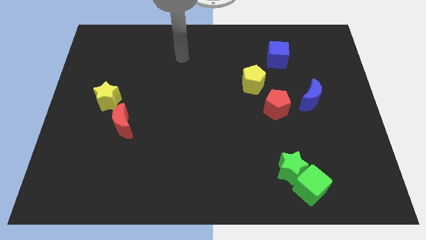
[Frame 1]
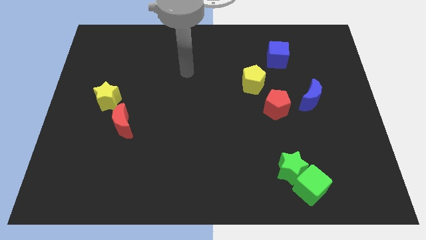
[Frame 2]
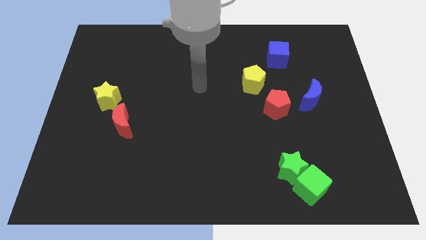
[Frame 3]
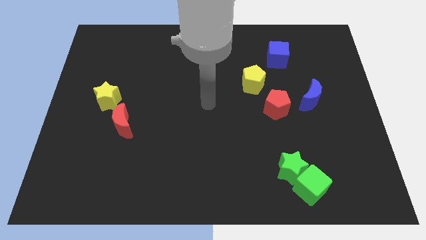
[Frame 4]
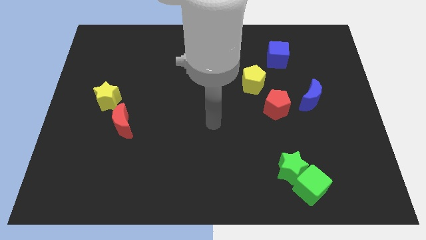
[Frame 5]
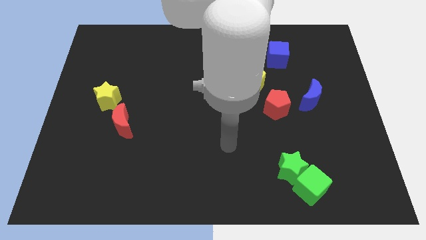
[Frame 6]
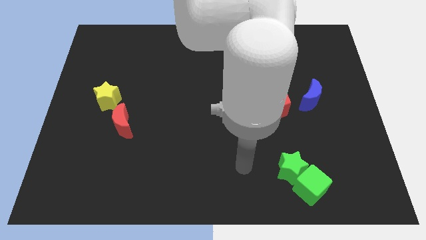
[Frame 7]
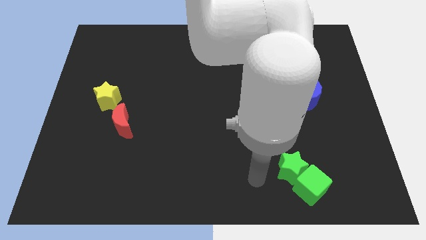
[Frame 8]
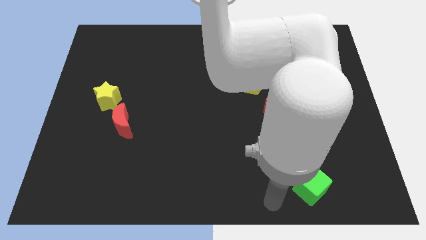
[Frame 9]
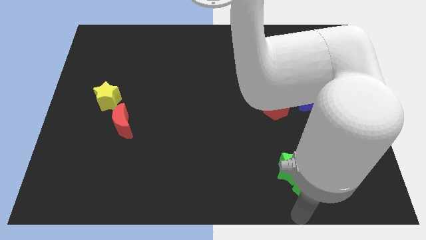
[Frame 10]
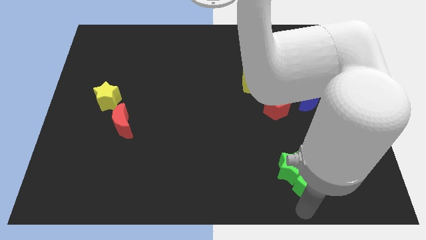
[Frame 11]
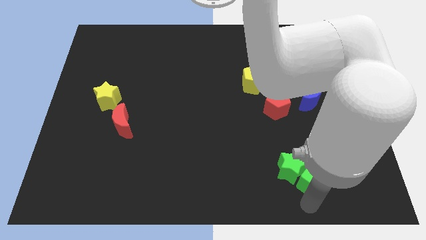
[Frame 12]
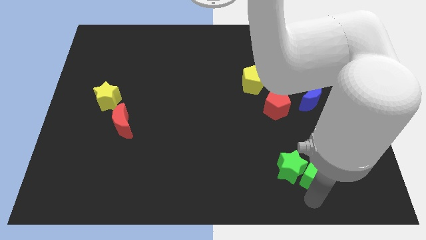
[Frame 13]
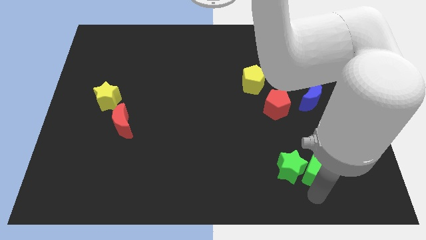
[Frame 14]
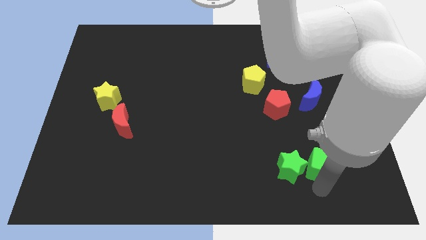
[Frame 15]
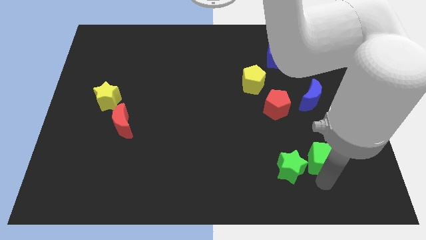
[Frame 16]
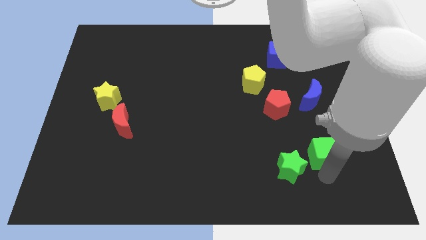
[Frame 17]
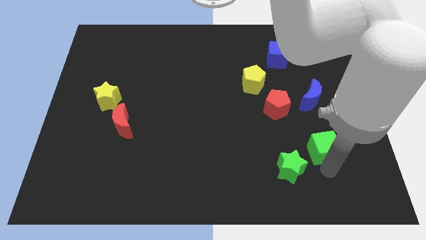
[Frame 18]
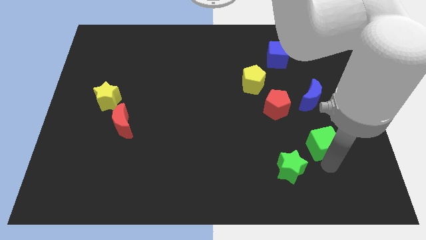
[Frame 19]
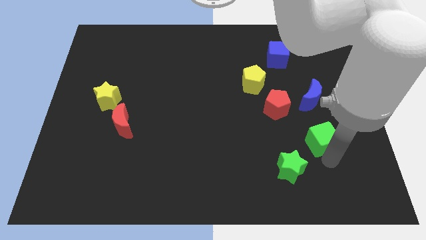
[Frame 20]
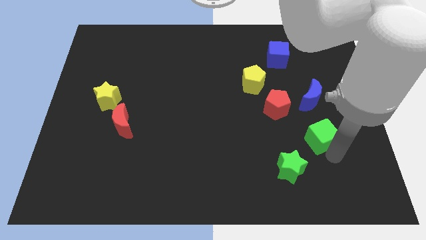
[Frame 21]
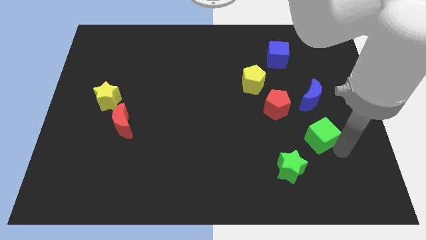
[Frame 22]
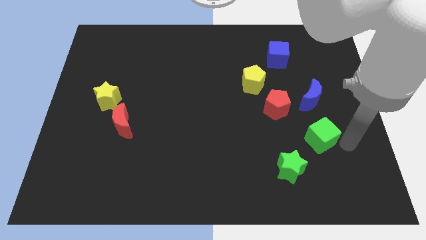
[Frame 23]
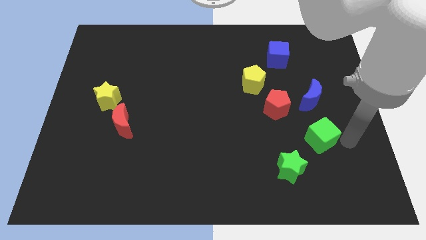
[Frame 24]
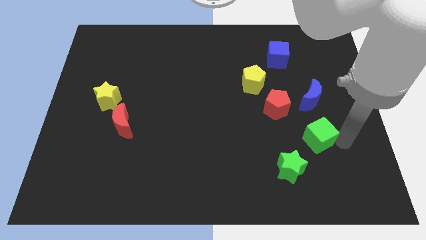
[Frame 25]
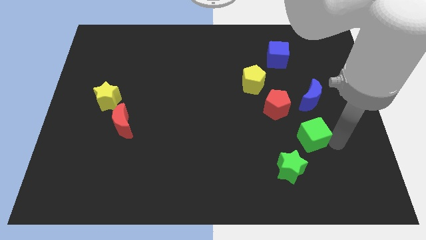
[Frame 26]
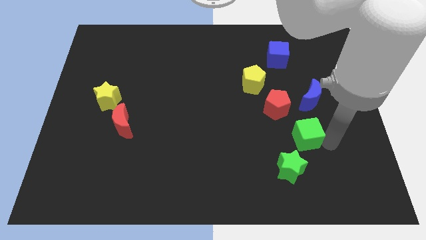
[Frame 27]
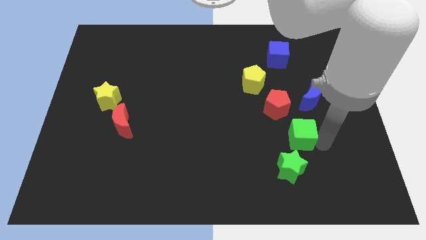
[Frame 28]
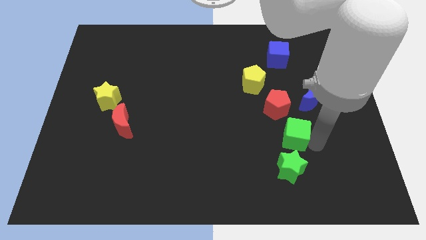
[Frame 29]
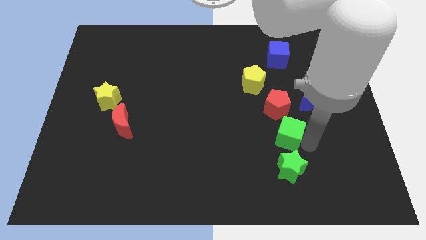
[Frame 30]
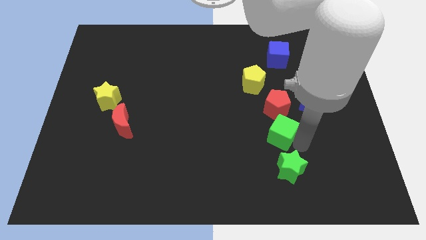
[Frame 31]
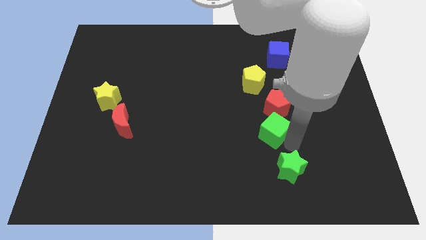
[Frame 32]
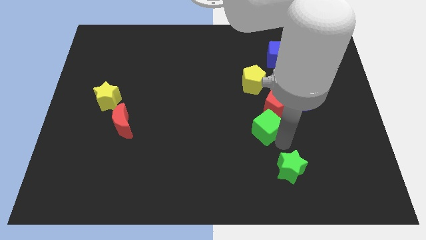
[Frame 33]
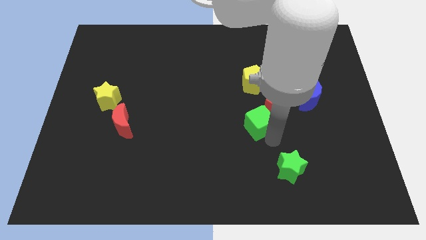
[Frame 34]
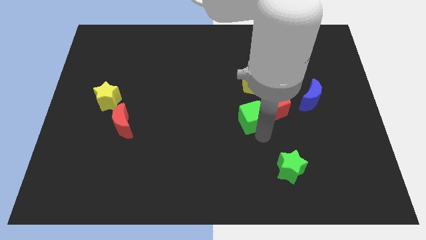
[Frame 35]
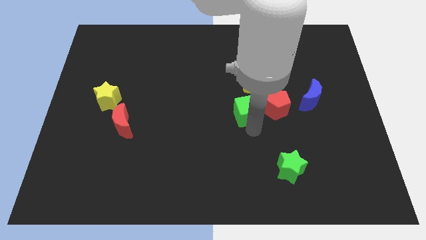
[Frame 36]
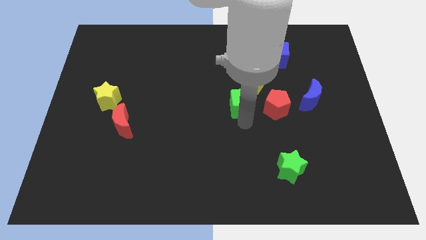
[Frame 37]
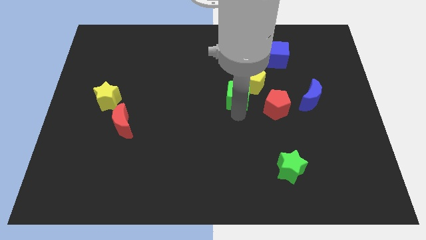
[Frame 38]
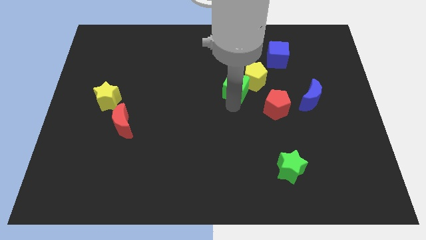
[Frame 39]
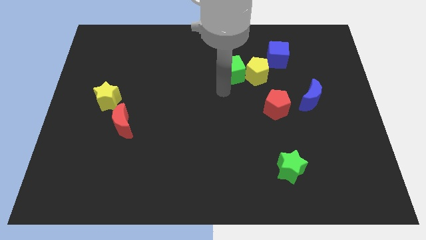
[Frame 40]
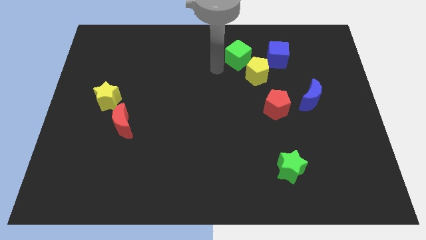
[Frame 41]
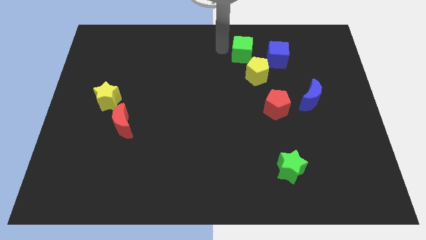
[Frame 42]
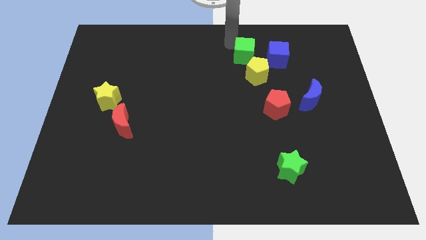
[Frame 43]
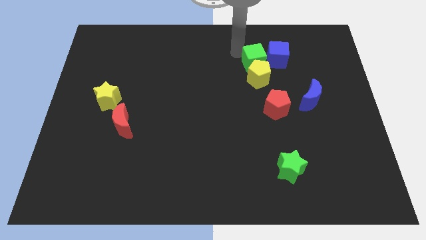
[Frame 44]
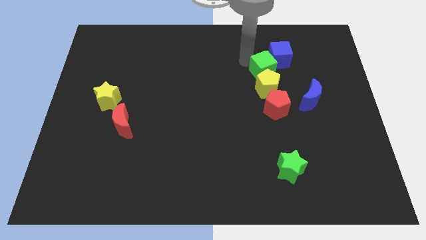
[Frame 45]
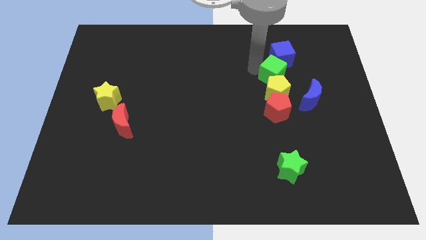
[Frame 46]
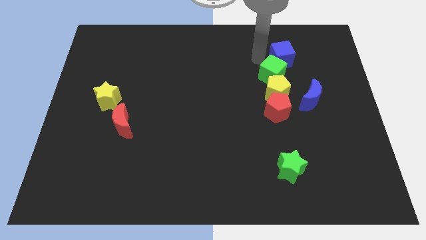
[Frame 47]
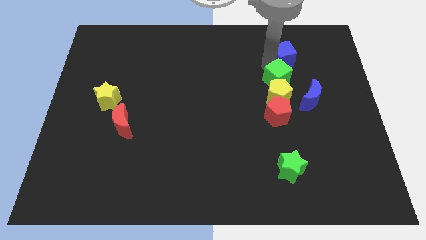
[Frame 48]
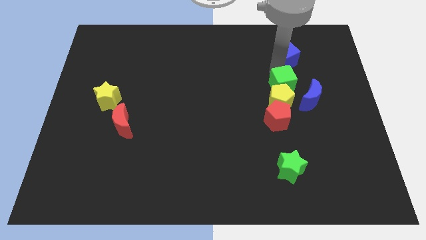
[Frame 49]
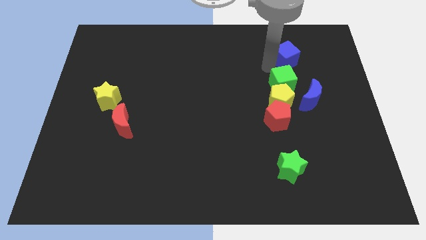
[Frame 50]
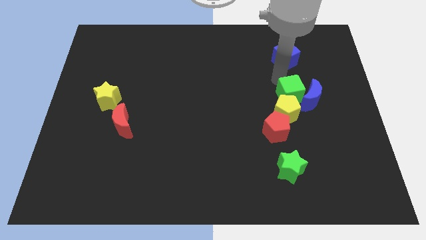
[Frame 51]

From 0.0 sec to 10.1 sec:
slide the green cube close to the blue moon

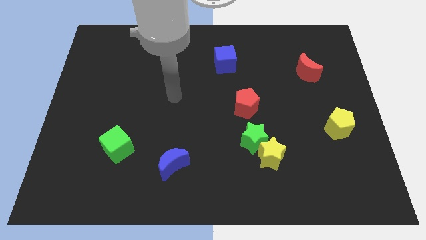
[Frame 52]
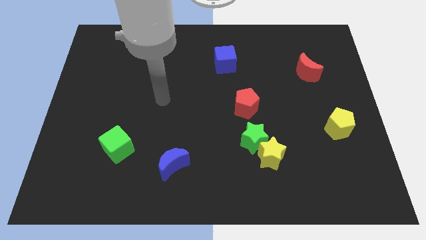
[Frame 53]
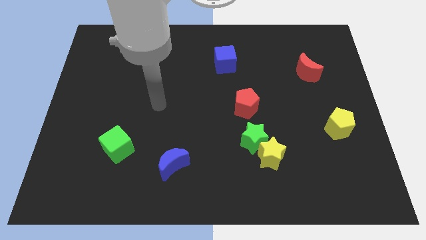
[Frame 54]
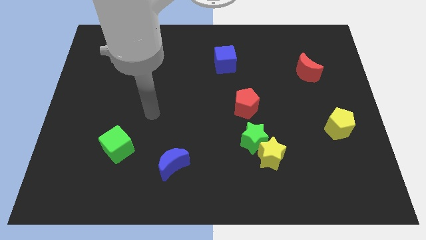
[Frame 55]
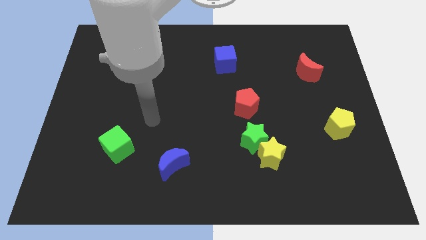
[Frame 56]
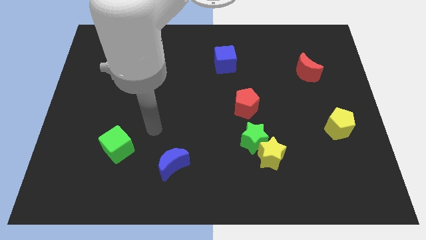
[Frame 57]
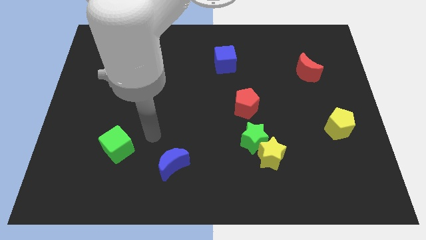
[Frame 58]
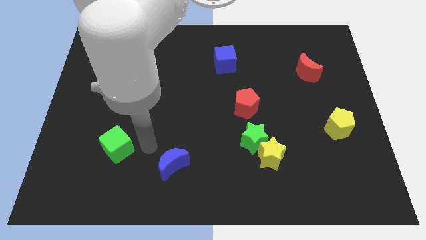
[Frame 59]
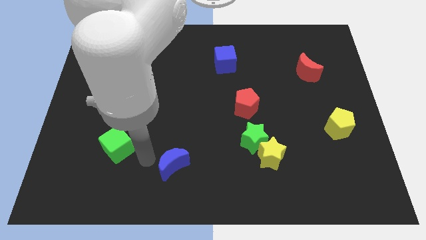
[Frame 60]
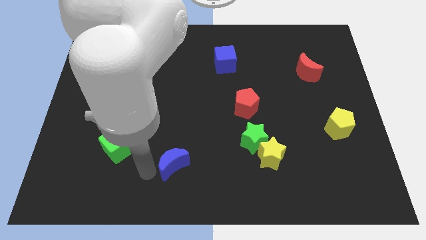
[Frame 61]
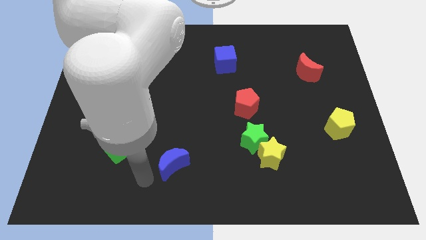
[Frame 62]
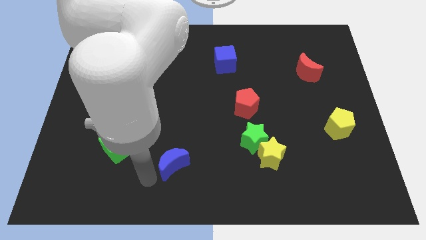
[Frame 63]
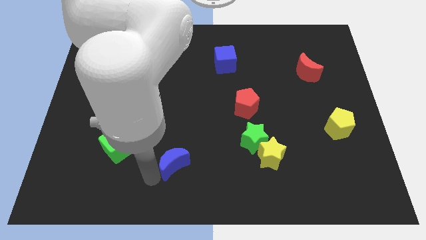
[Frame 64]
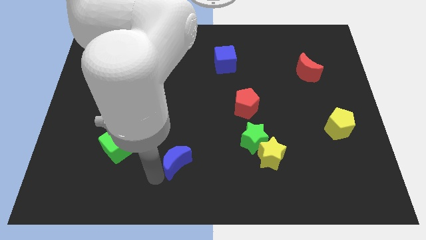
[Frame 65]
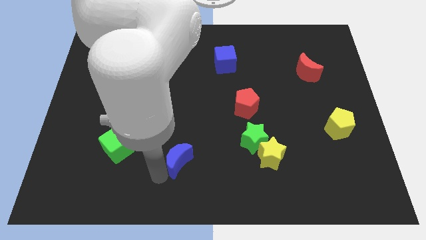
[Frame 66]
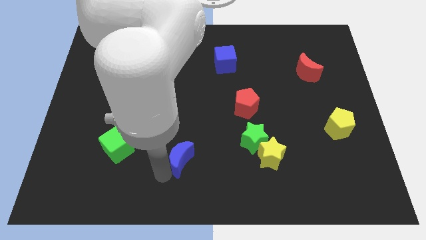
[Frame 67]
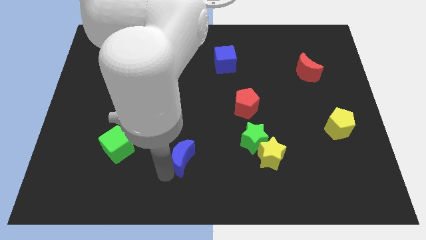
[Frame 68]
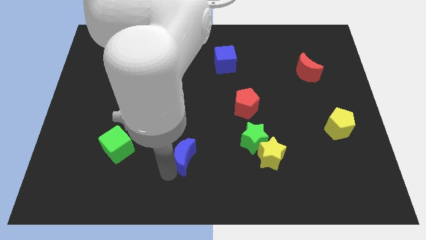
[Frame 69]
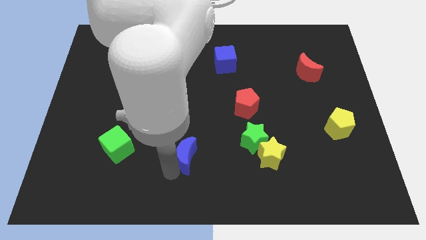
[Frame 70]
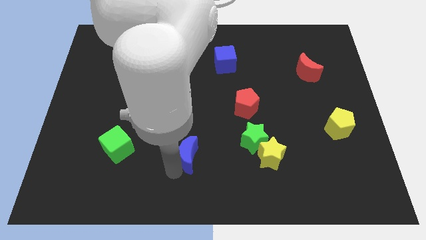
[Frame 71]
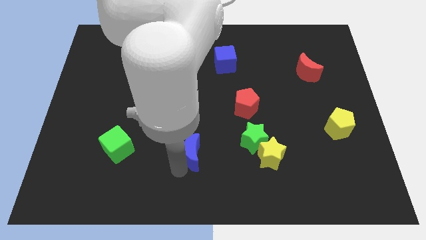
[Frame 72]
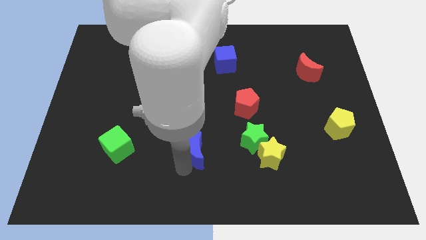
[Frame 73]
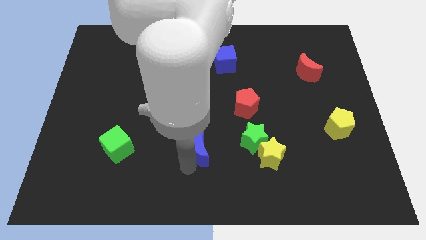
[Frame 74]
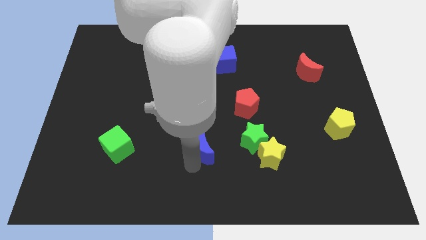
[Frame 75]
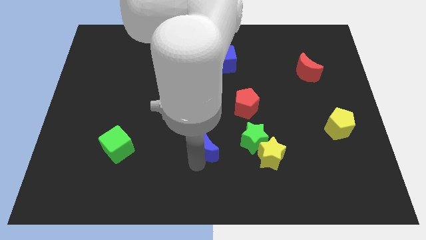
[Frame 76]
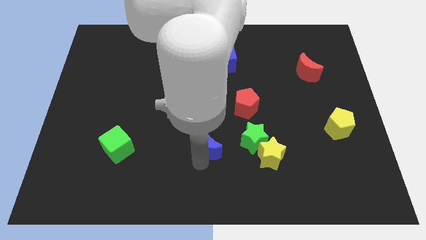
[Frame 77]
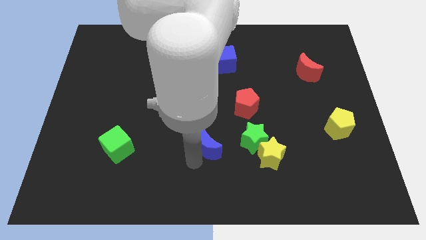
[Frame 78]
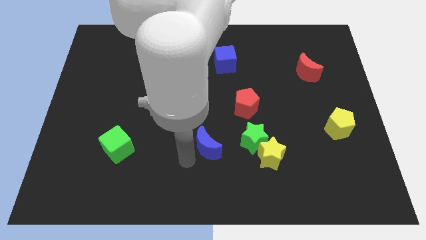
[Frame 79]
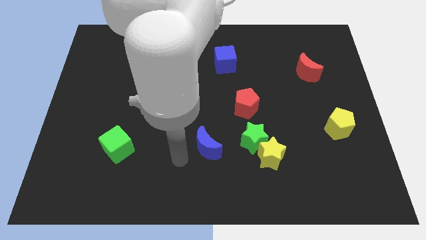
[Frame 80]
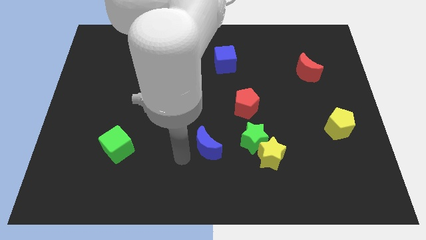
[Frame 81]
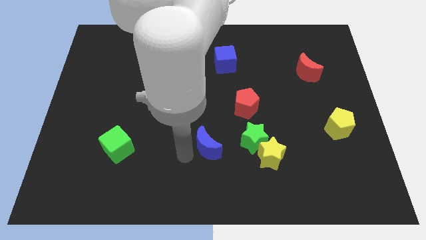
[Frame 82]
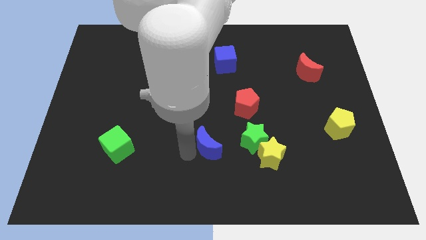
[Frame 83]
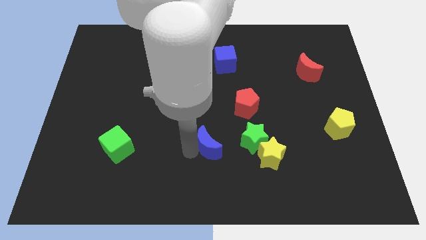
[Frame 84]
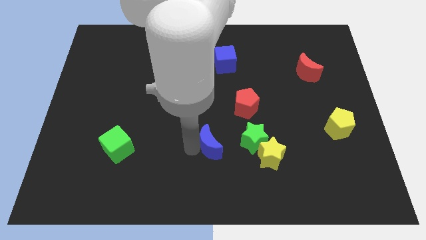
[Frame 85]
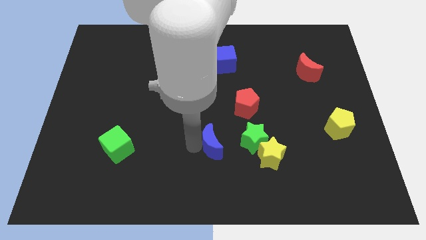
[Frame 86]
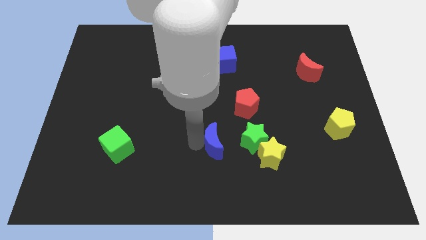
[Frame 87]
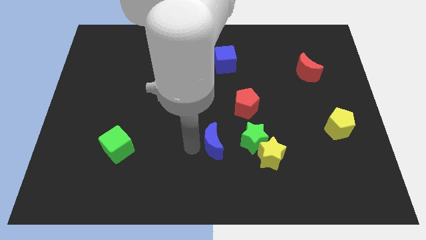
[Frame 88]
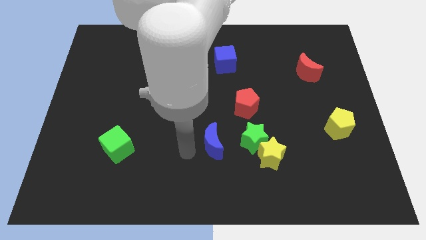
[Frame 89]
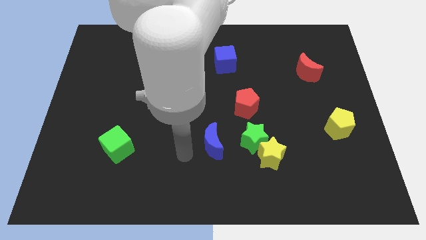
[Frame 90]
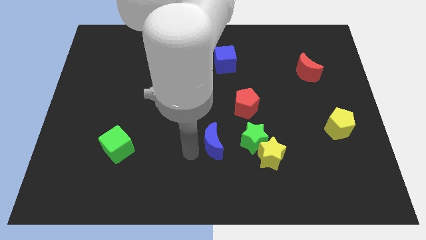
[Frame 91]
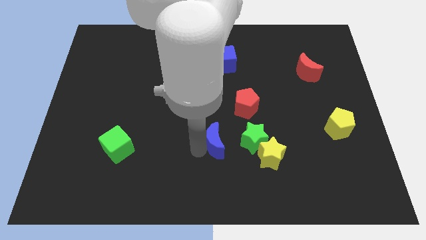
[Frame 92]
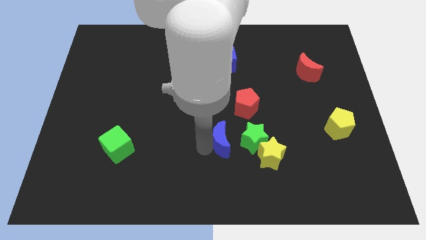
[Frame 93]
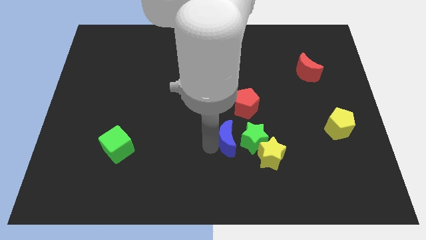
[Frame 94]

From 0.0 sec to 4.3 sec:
push the blue moon next to the green star
